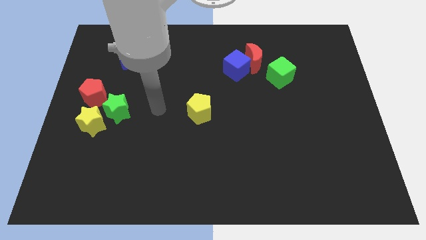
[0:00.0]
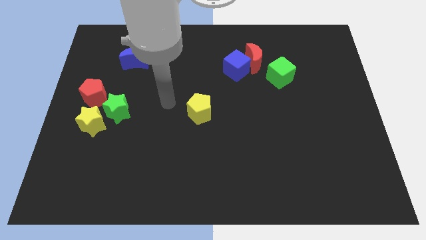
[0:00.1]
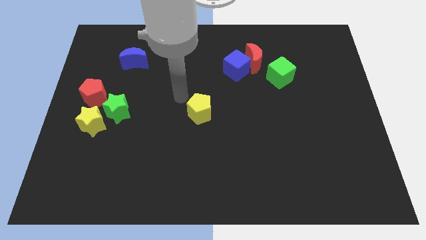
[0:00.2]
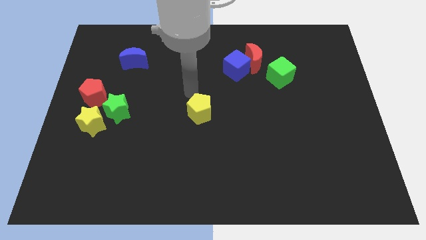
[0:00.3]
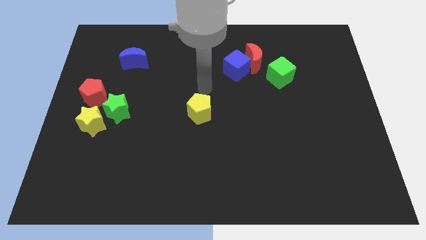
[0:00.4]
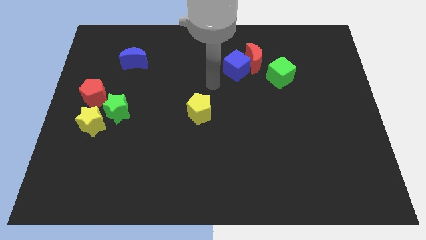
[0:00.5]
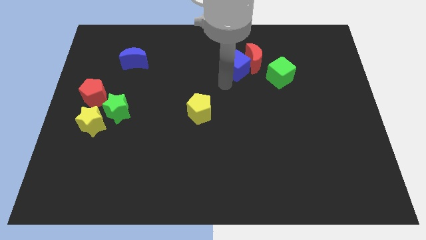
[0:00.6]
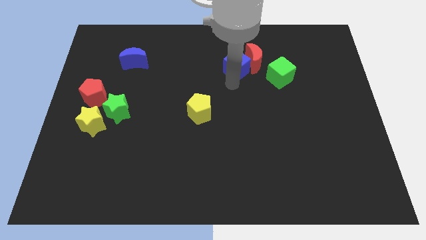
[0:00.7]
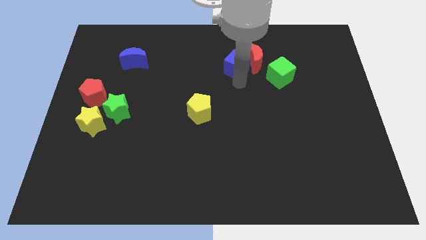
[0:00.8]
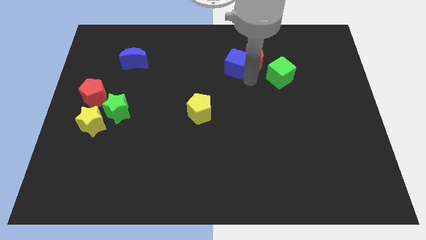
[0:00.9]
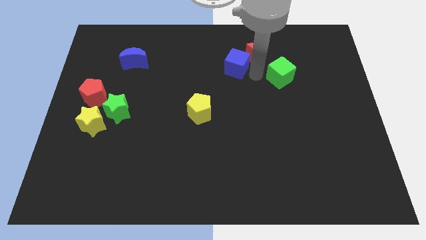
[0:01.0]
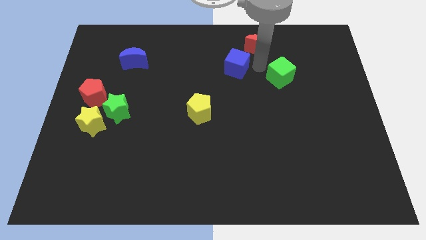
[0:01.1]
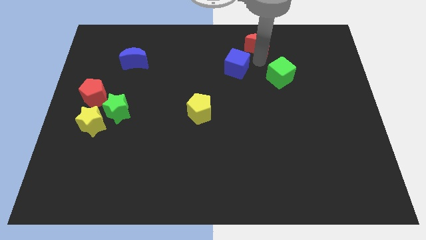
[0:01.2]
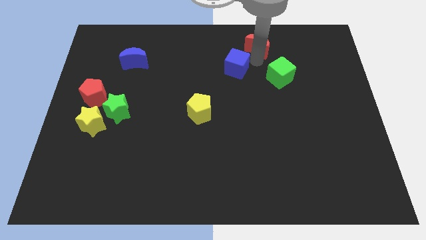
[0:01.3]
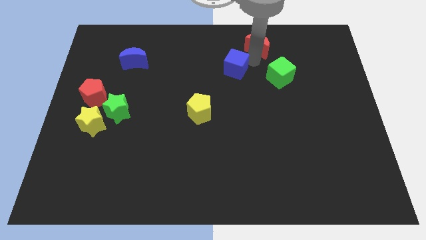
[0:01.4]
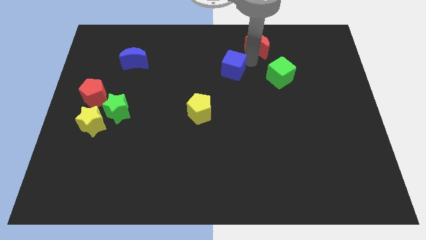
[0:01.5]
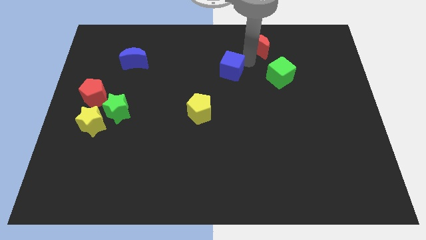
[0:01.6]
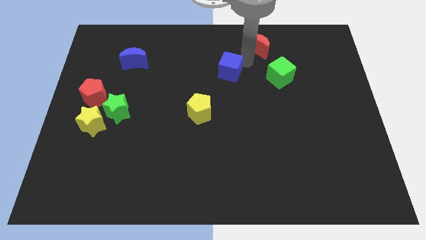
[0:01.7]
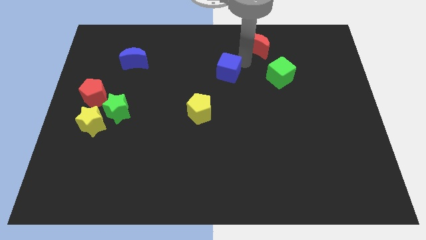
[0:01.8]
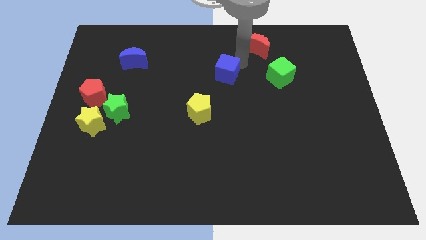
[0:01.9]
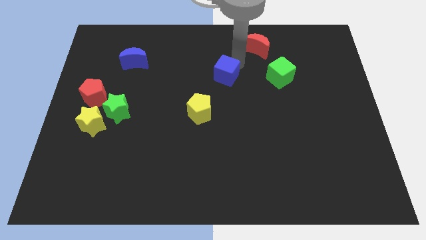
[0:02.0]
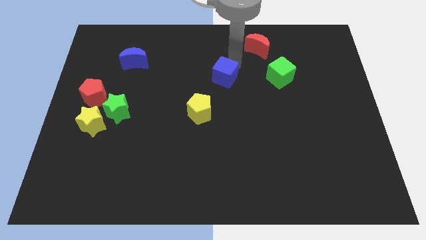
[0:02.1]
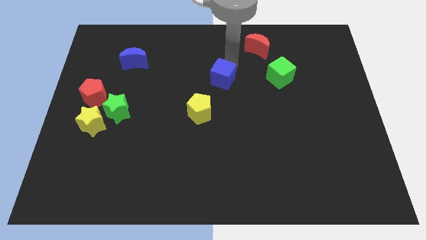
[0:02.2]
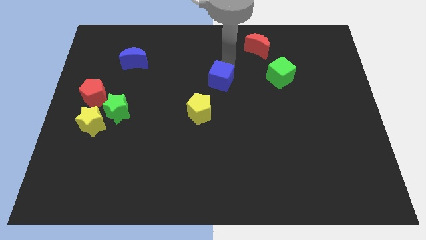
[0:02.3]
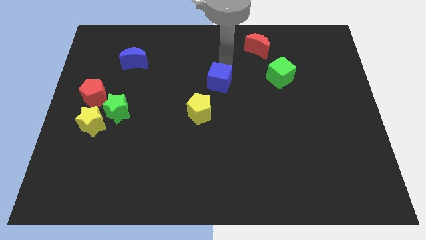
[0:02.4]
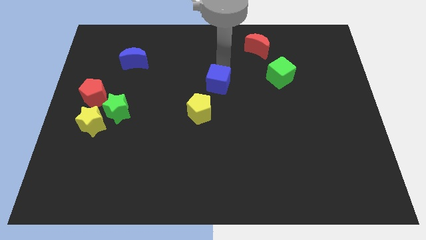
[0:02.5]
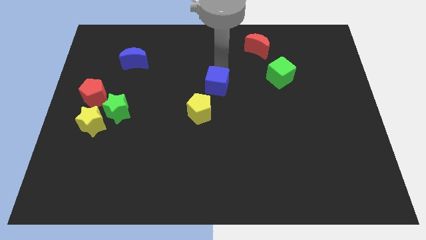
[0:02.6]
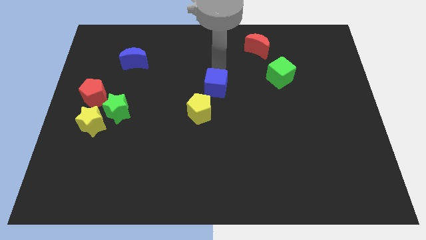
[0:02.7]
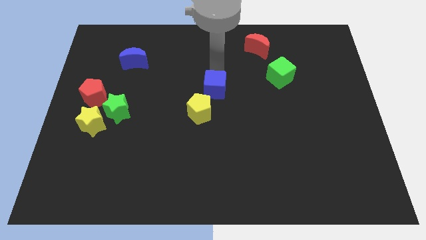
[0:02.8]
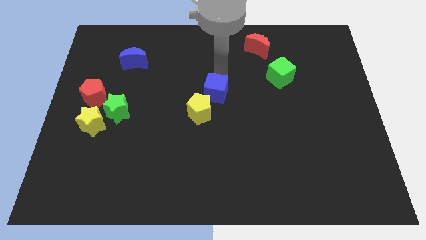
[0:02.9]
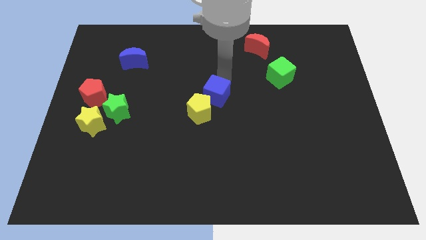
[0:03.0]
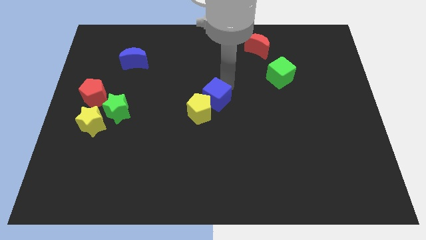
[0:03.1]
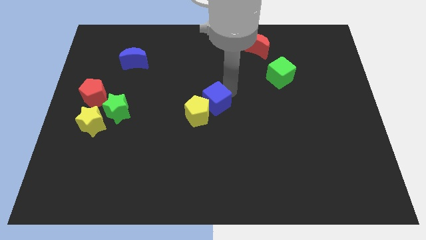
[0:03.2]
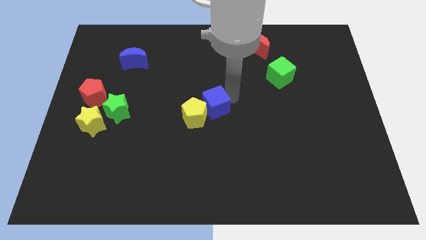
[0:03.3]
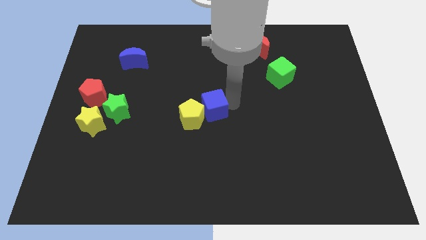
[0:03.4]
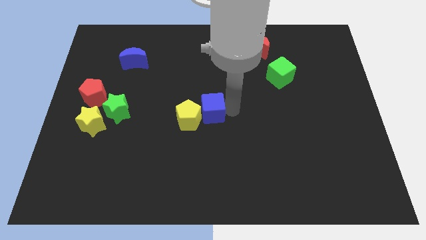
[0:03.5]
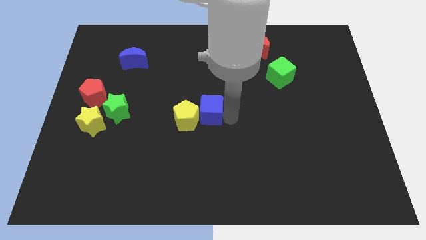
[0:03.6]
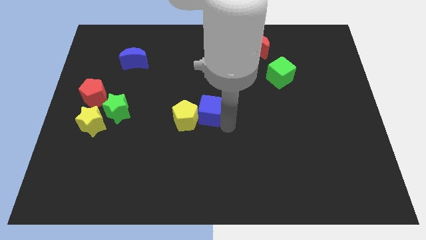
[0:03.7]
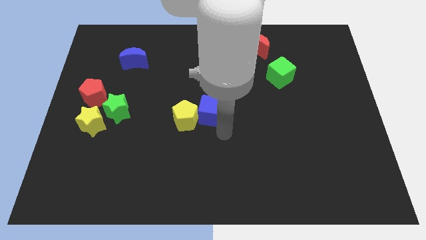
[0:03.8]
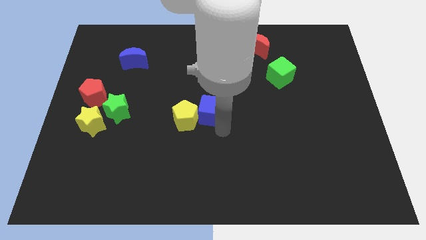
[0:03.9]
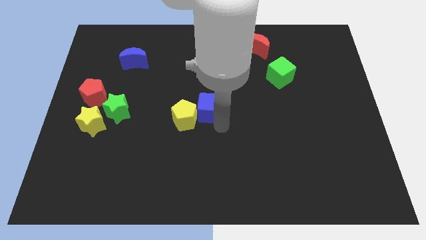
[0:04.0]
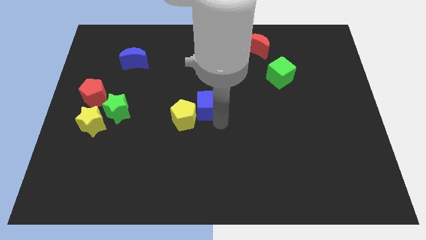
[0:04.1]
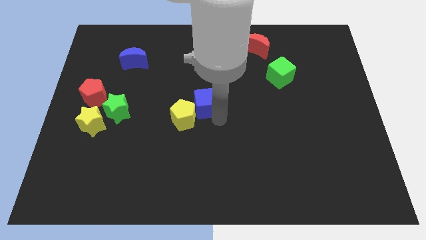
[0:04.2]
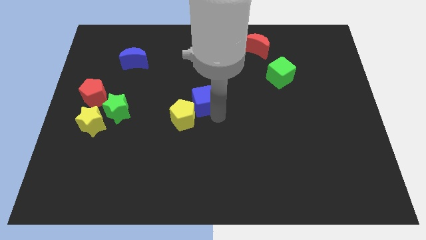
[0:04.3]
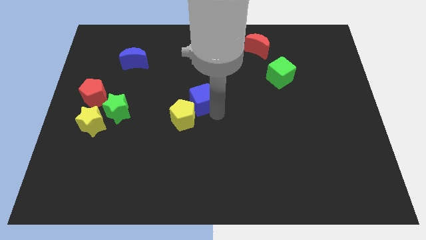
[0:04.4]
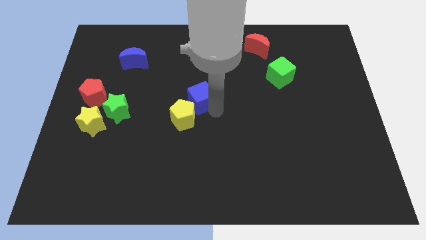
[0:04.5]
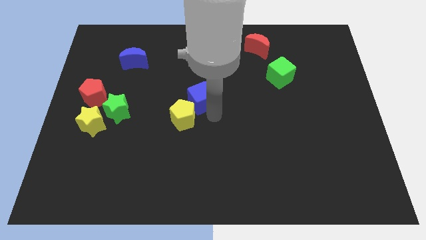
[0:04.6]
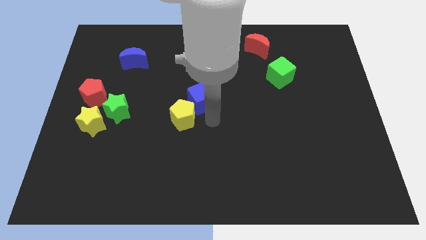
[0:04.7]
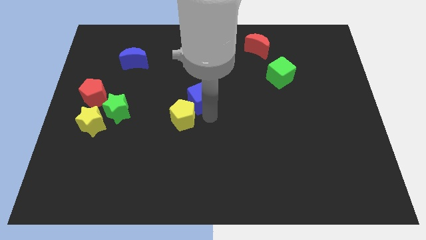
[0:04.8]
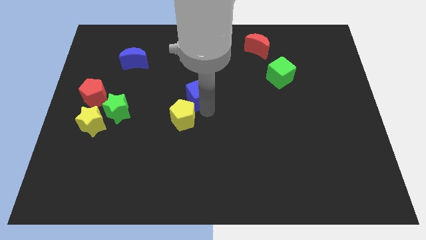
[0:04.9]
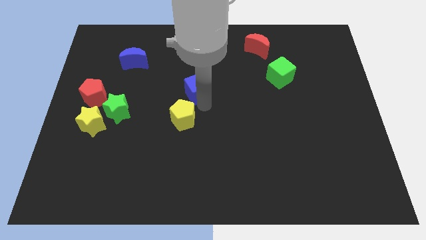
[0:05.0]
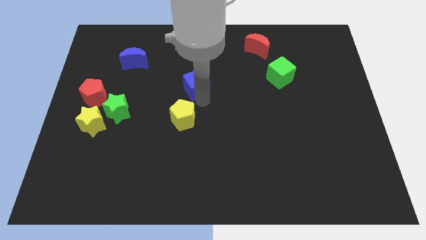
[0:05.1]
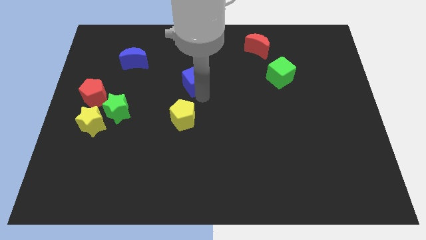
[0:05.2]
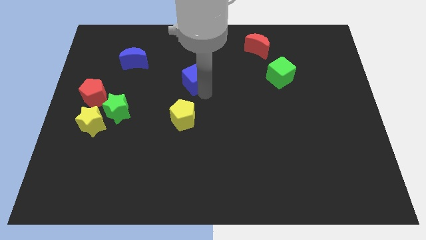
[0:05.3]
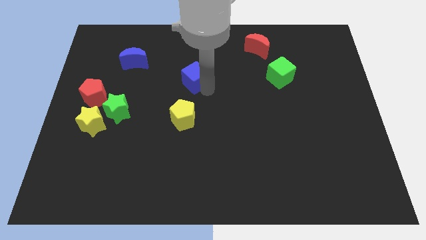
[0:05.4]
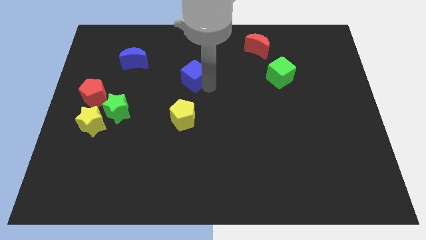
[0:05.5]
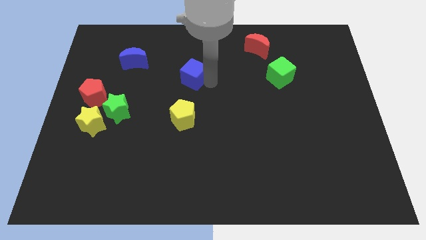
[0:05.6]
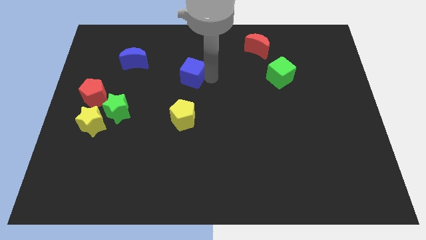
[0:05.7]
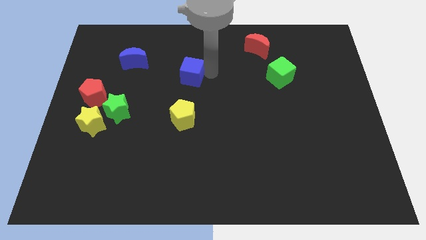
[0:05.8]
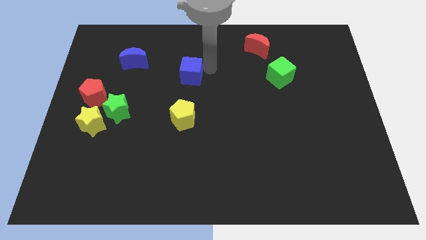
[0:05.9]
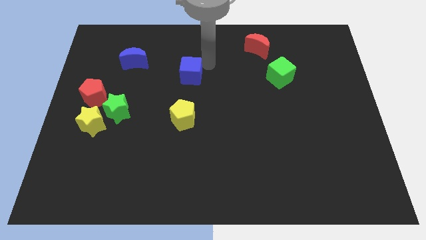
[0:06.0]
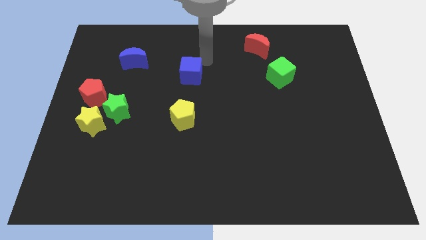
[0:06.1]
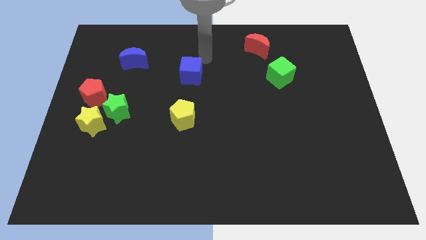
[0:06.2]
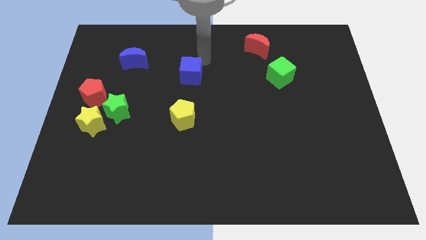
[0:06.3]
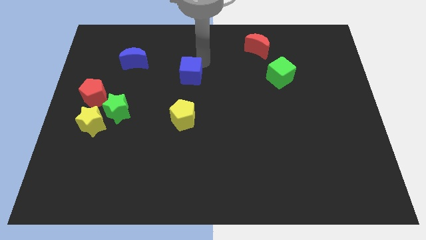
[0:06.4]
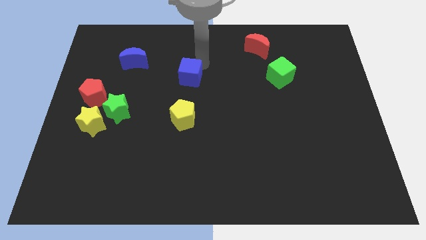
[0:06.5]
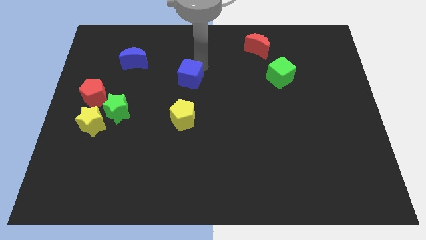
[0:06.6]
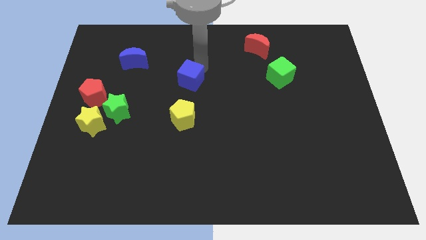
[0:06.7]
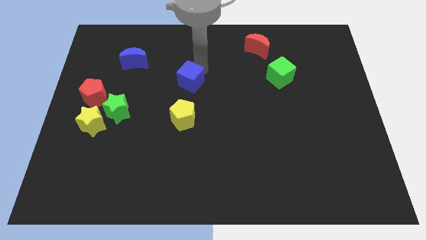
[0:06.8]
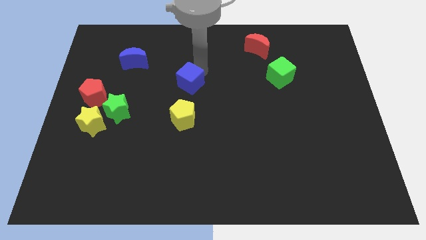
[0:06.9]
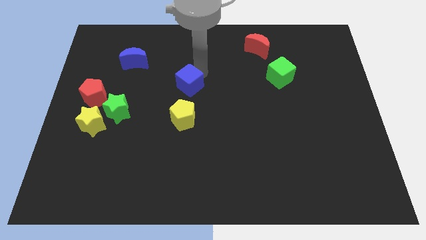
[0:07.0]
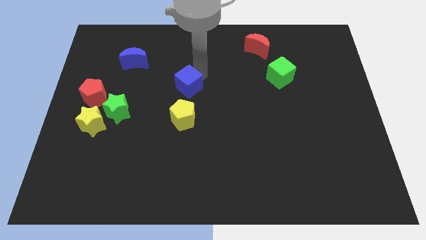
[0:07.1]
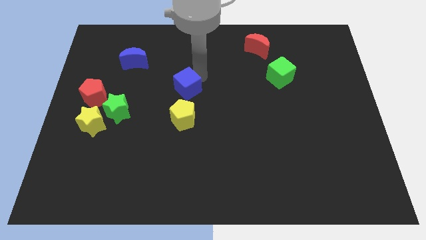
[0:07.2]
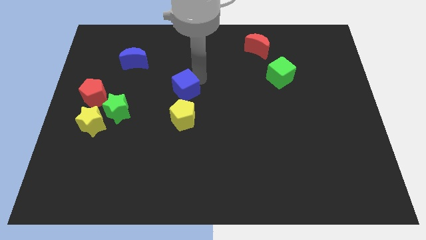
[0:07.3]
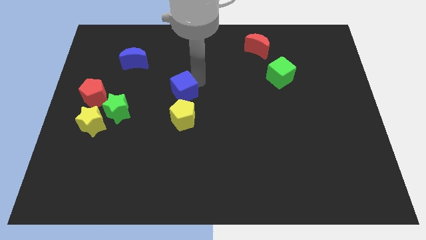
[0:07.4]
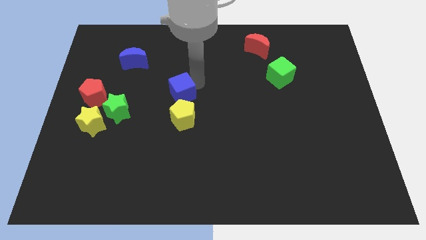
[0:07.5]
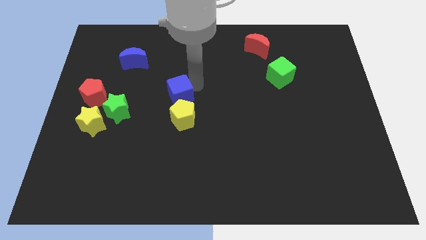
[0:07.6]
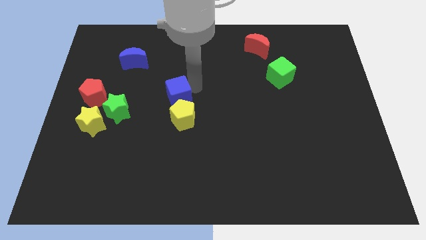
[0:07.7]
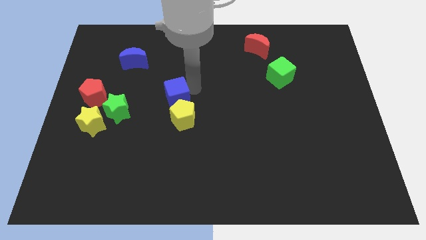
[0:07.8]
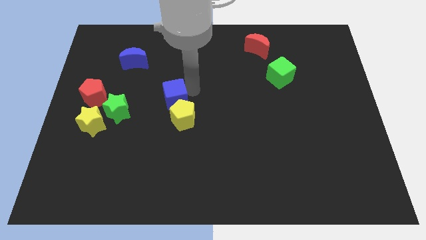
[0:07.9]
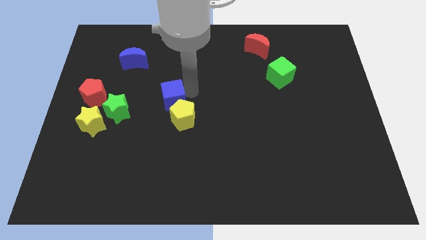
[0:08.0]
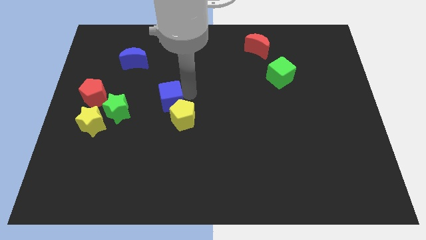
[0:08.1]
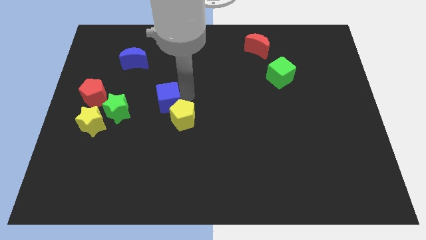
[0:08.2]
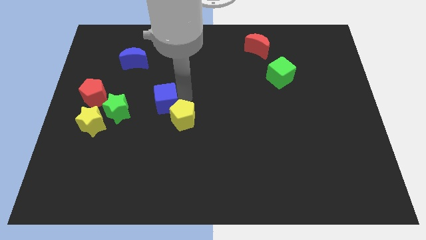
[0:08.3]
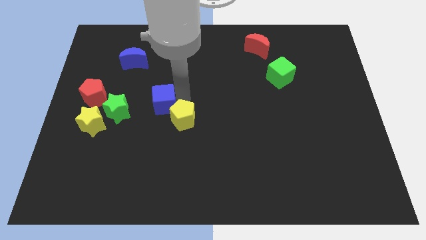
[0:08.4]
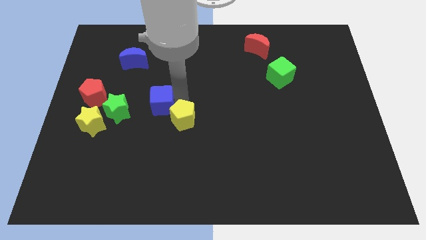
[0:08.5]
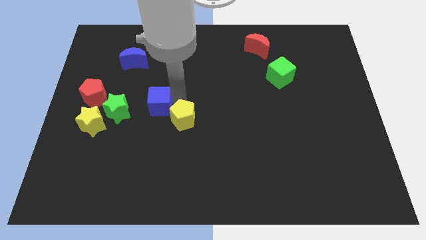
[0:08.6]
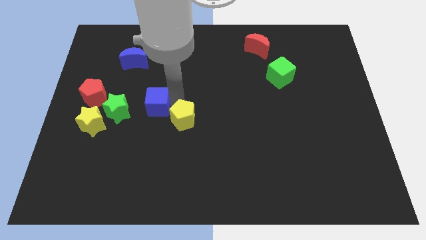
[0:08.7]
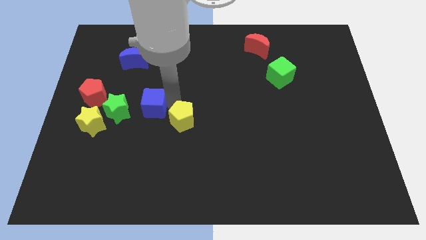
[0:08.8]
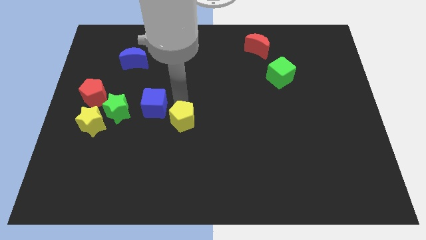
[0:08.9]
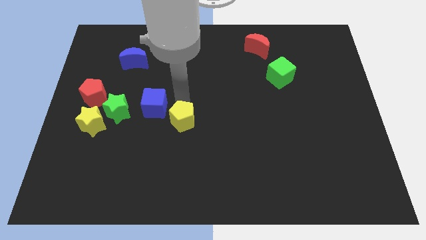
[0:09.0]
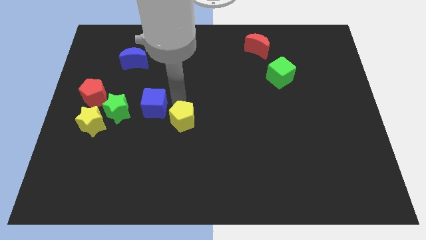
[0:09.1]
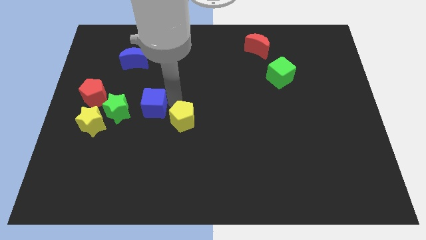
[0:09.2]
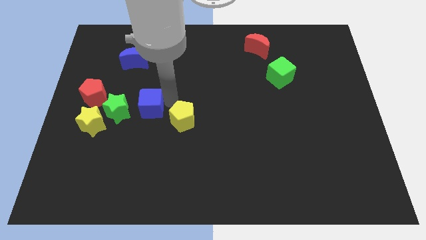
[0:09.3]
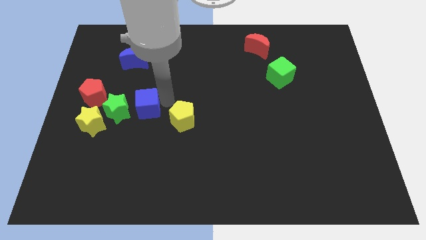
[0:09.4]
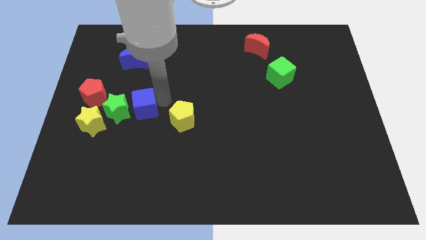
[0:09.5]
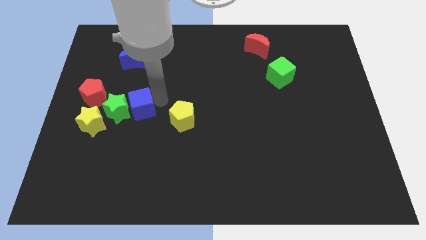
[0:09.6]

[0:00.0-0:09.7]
slide the blue cube towards the green star
